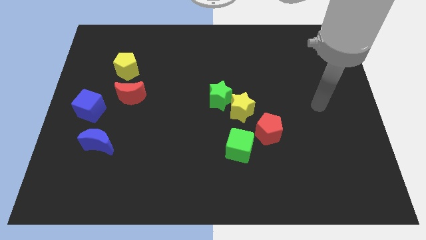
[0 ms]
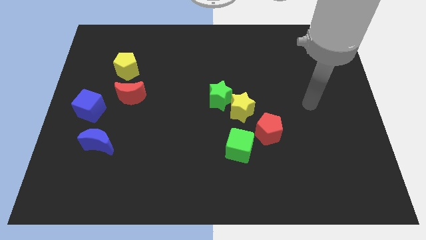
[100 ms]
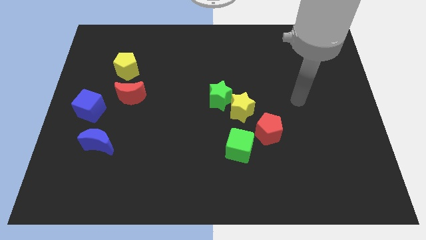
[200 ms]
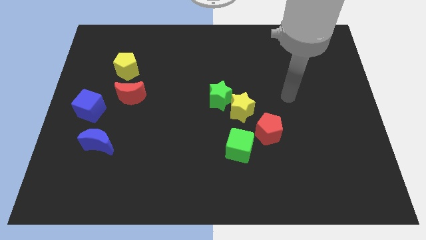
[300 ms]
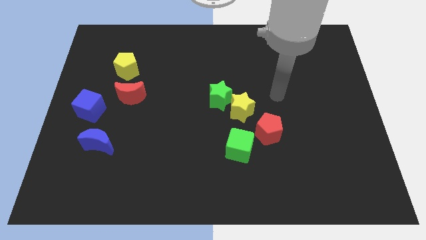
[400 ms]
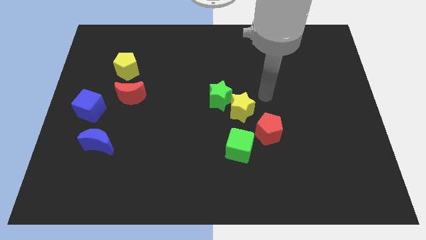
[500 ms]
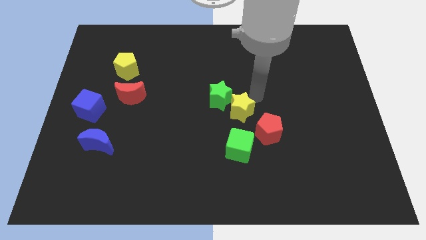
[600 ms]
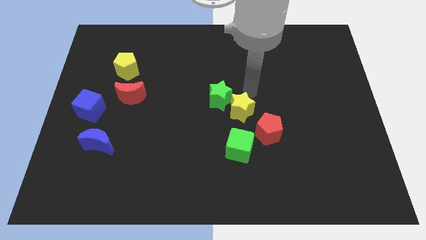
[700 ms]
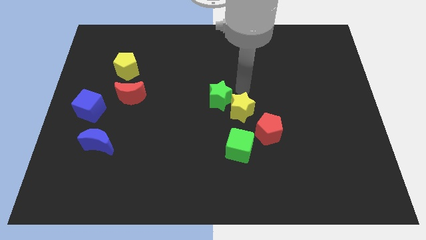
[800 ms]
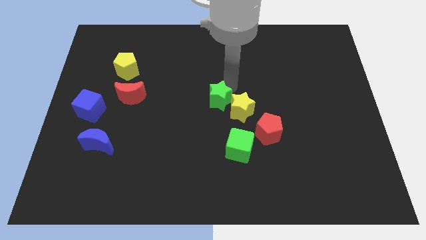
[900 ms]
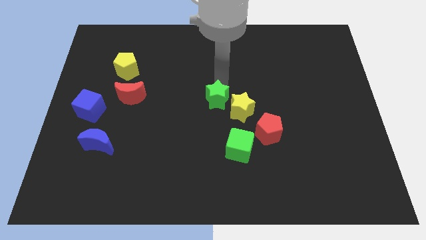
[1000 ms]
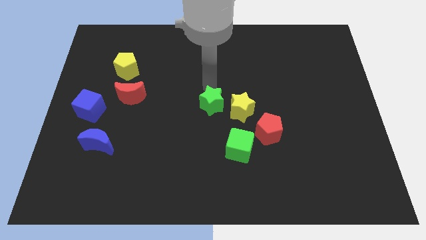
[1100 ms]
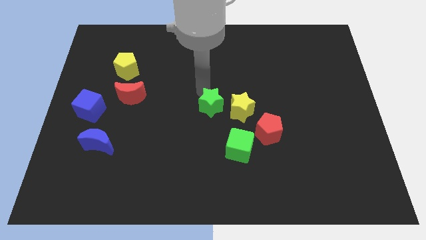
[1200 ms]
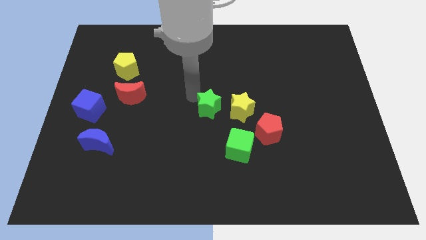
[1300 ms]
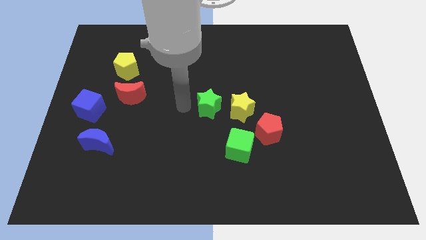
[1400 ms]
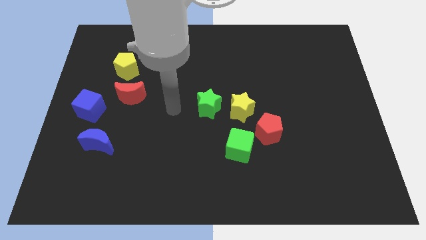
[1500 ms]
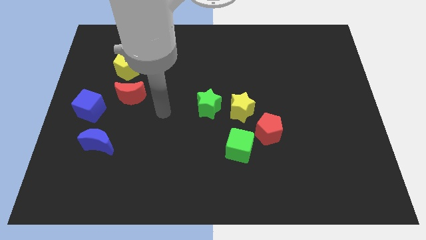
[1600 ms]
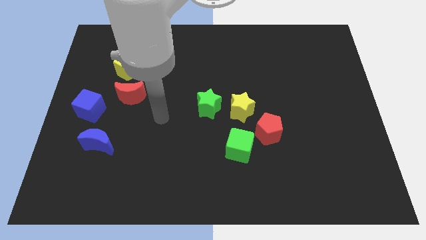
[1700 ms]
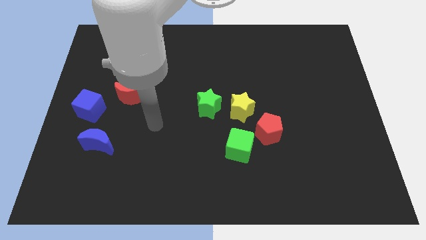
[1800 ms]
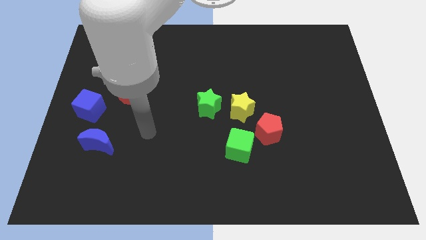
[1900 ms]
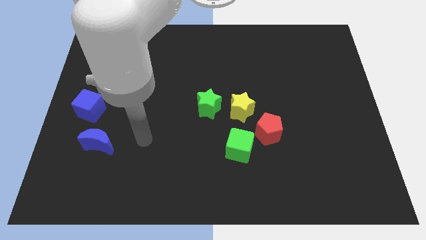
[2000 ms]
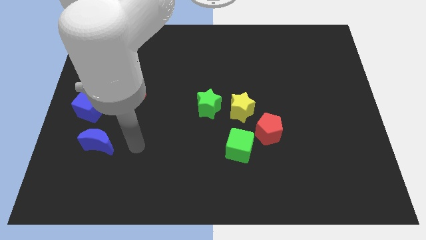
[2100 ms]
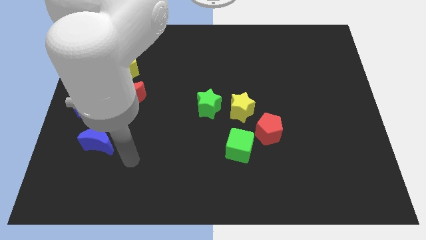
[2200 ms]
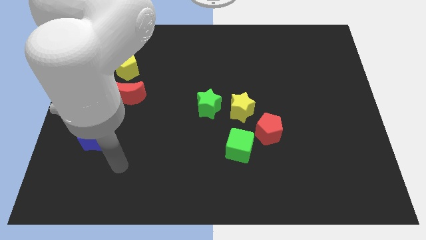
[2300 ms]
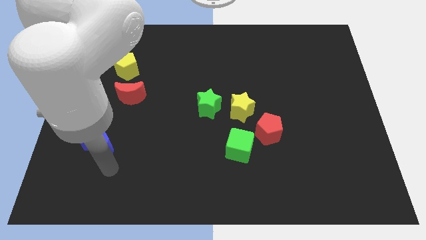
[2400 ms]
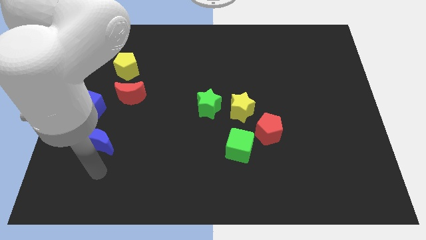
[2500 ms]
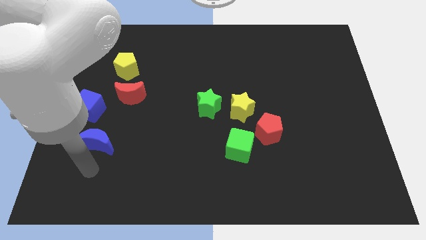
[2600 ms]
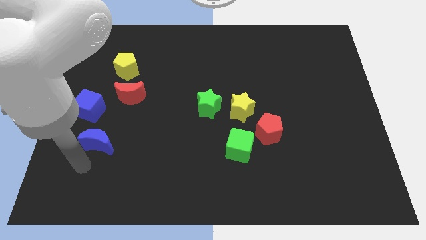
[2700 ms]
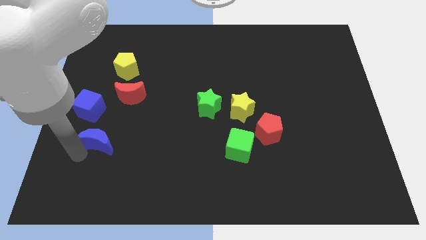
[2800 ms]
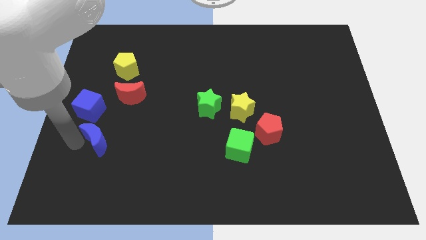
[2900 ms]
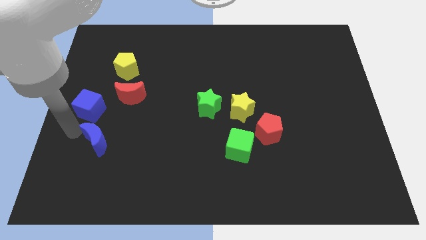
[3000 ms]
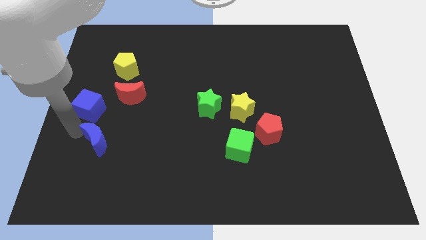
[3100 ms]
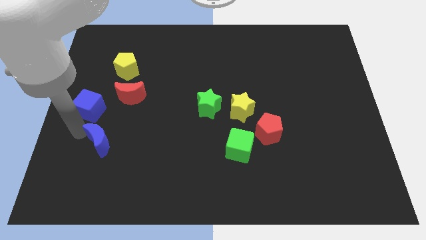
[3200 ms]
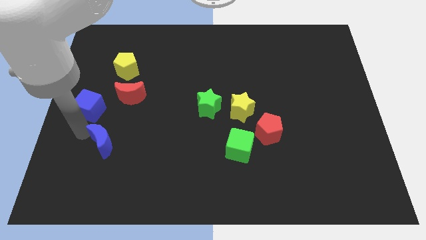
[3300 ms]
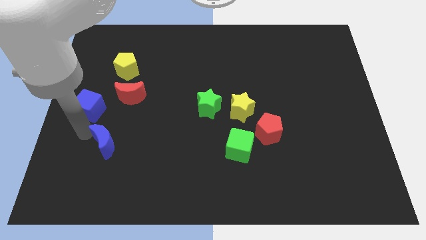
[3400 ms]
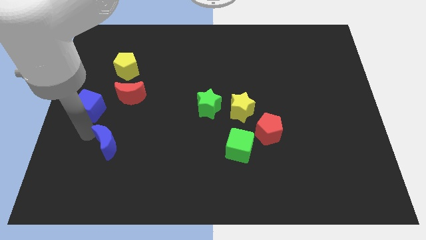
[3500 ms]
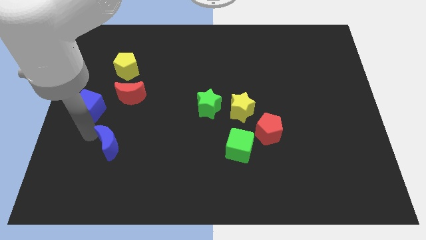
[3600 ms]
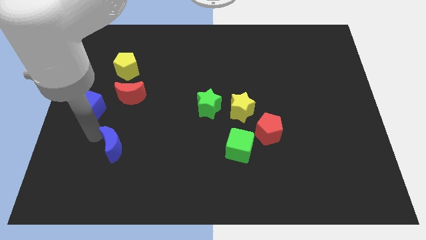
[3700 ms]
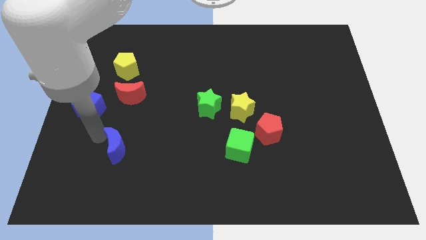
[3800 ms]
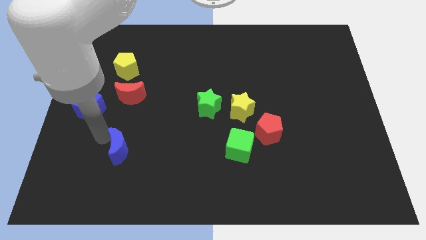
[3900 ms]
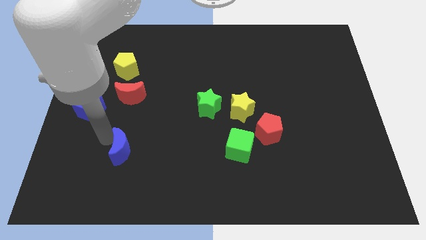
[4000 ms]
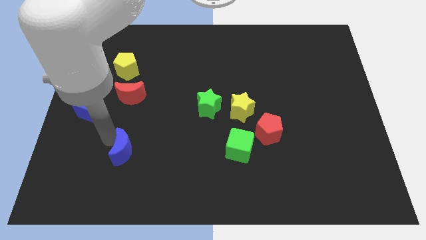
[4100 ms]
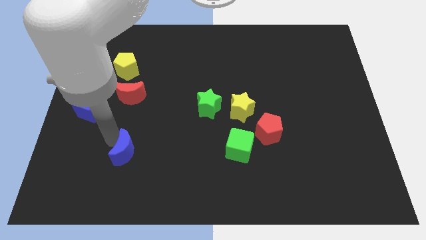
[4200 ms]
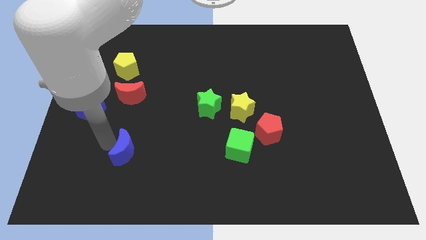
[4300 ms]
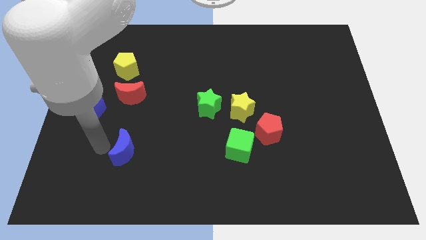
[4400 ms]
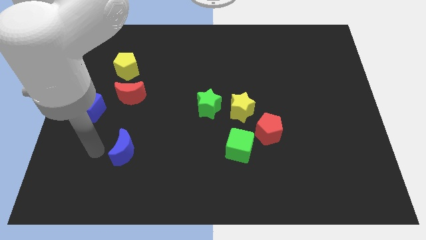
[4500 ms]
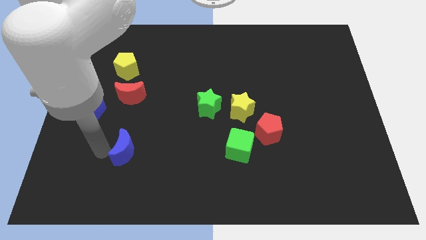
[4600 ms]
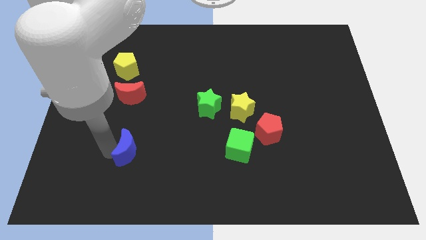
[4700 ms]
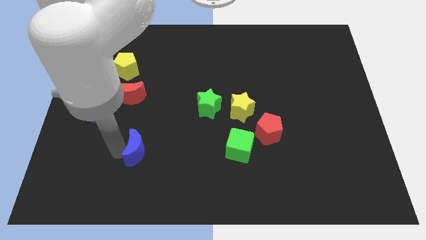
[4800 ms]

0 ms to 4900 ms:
move the blue moon to the right a little

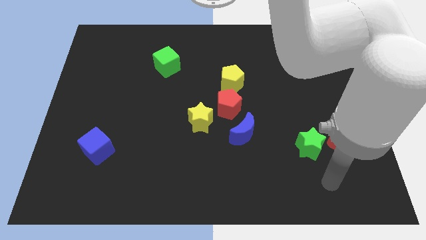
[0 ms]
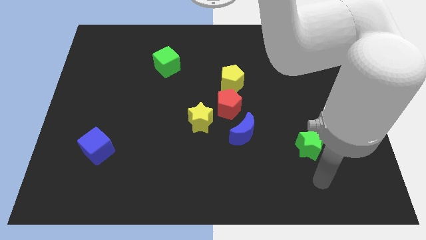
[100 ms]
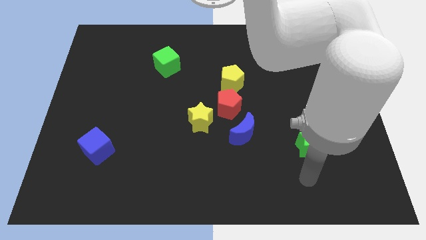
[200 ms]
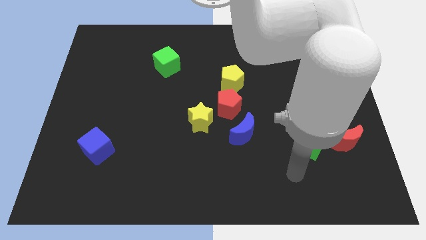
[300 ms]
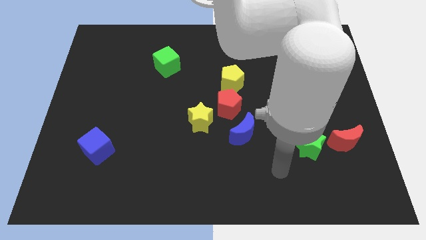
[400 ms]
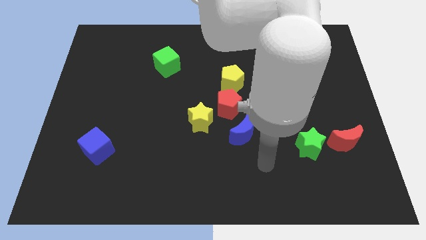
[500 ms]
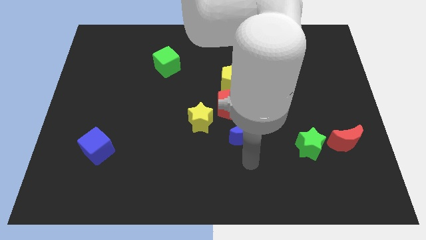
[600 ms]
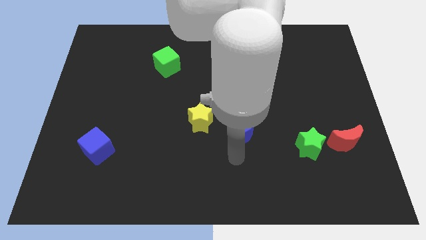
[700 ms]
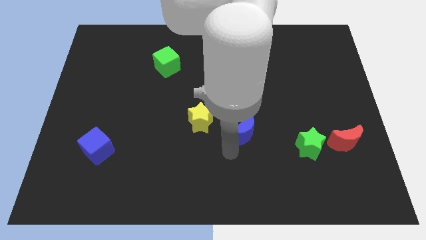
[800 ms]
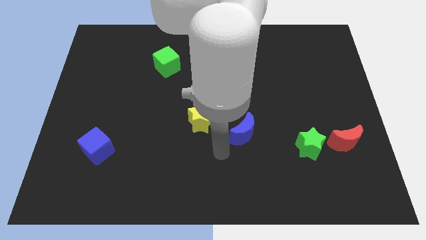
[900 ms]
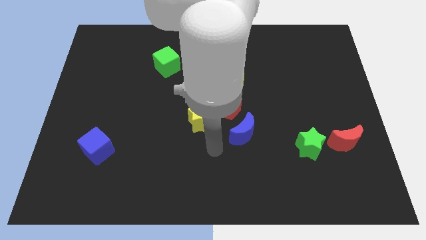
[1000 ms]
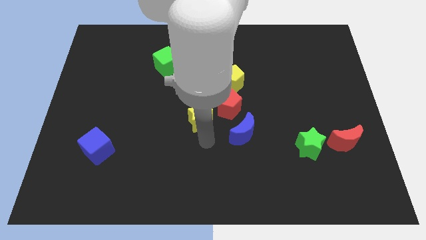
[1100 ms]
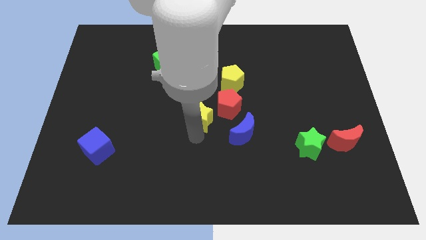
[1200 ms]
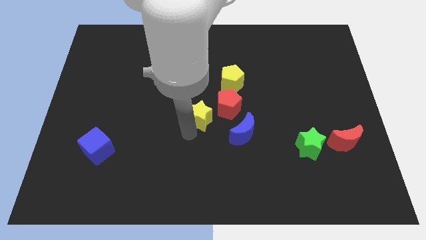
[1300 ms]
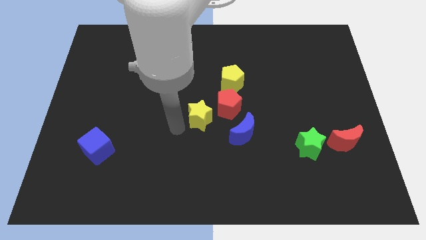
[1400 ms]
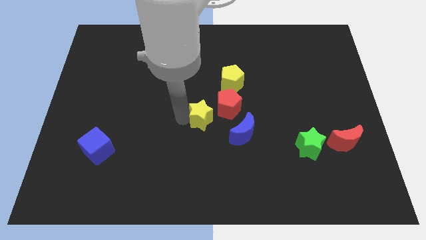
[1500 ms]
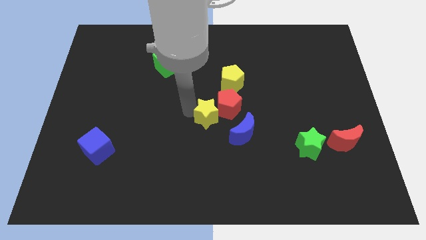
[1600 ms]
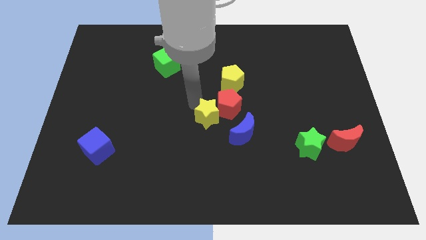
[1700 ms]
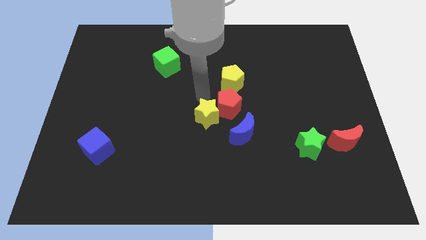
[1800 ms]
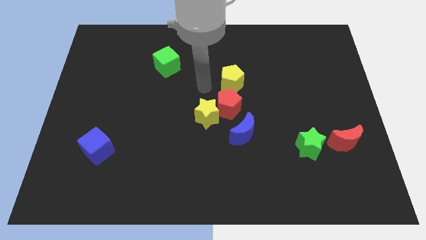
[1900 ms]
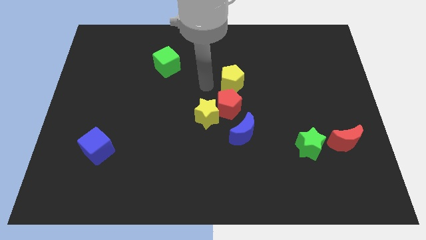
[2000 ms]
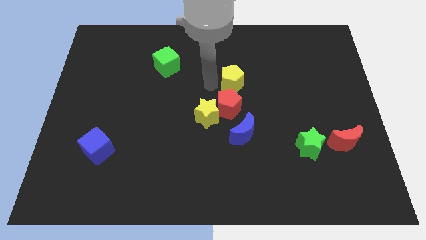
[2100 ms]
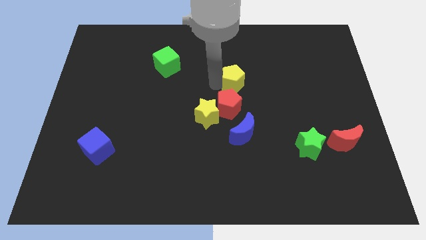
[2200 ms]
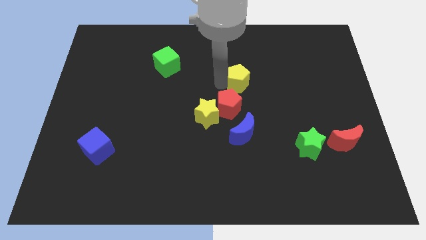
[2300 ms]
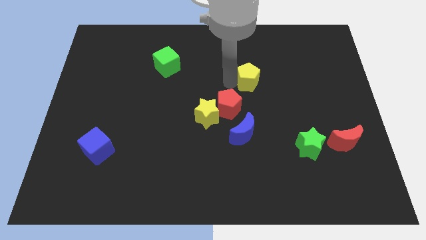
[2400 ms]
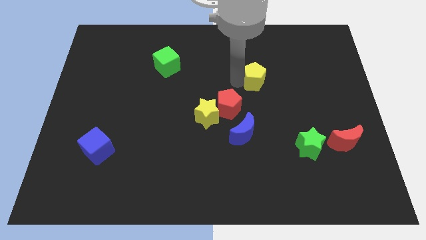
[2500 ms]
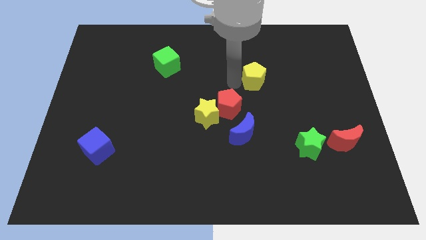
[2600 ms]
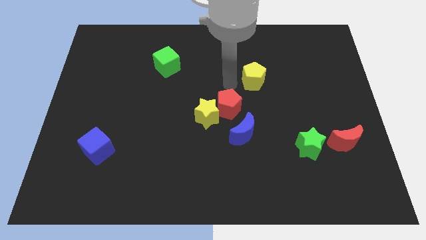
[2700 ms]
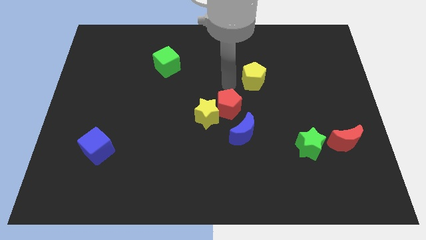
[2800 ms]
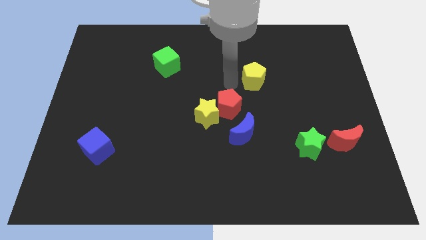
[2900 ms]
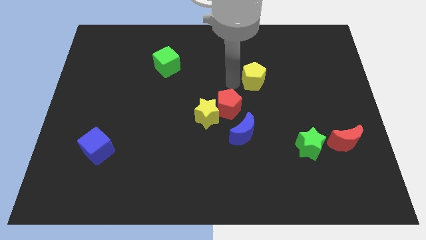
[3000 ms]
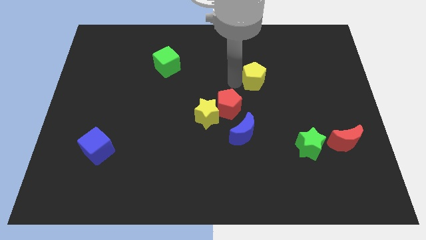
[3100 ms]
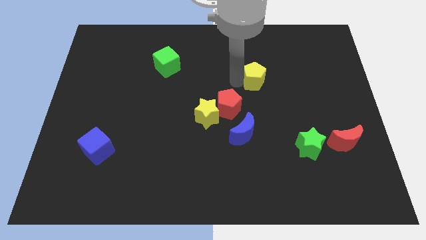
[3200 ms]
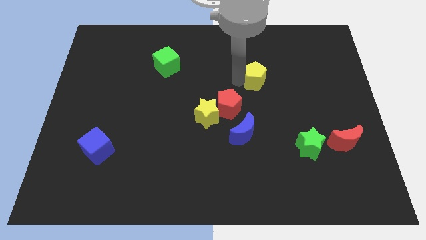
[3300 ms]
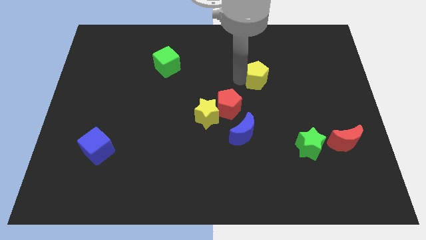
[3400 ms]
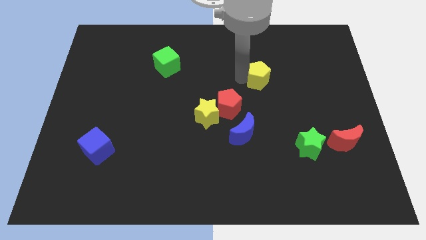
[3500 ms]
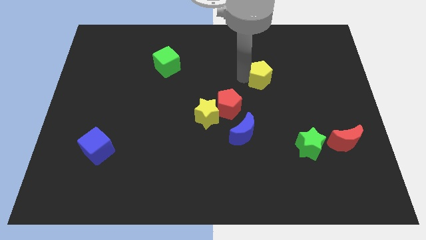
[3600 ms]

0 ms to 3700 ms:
slide the yellow pentagon a little bit to the right
